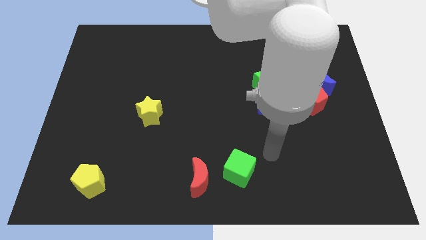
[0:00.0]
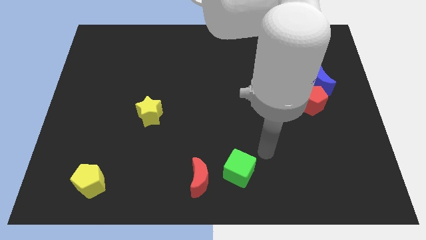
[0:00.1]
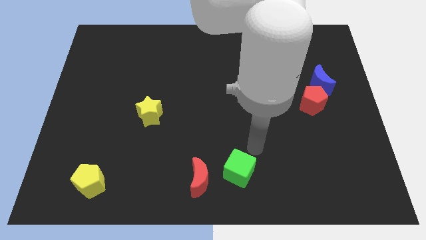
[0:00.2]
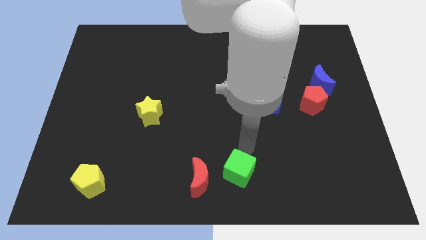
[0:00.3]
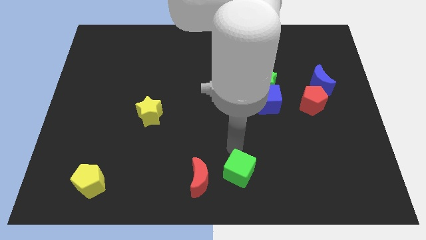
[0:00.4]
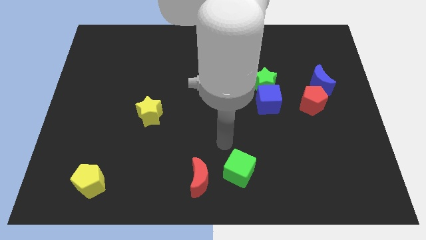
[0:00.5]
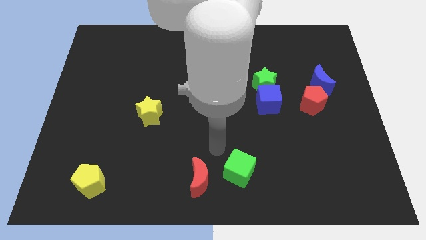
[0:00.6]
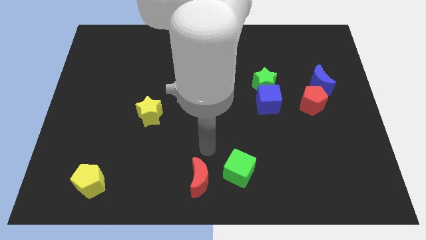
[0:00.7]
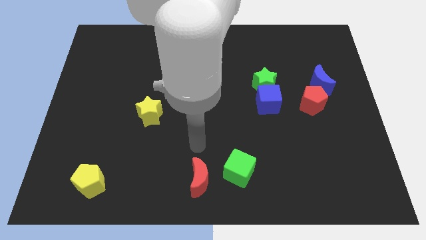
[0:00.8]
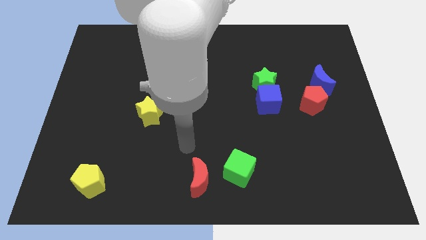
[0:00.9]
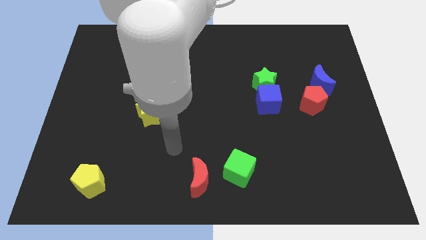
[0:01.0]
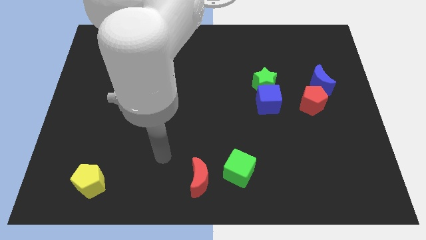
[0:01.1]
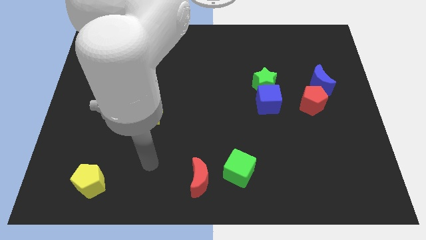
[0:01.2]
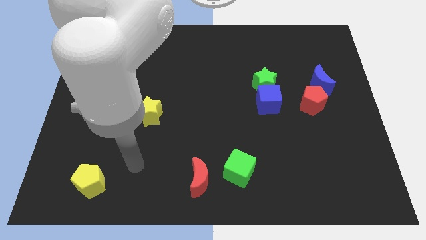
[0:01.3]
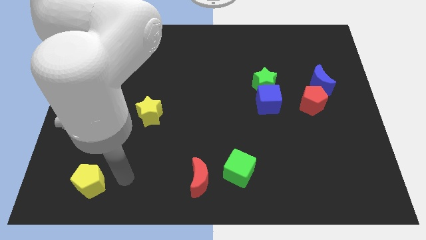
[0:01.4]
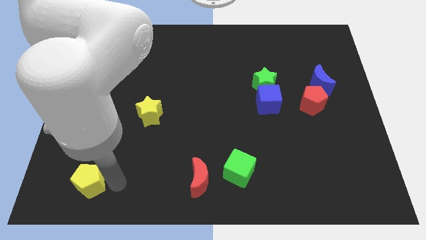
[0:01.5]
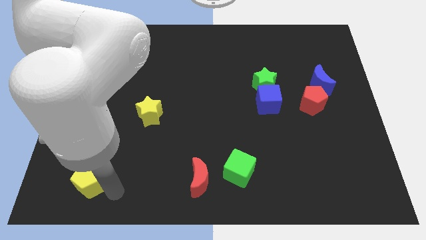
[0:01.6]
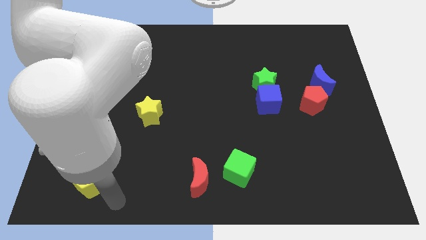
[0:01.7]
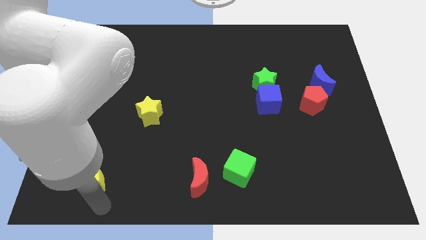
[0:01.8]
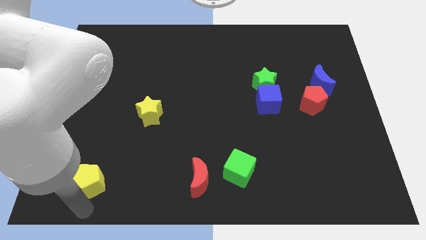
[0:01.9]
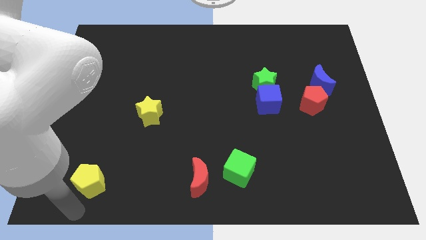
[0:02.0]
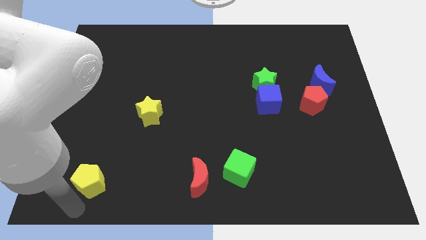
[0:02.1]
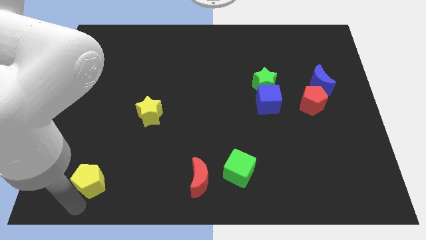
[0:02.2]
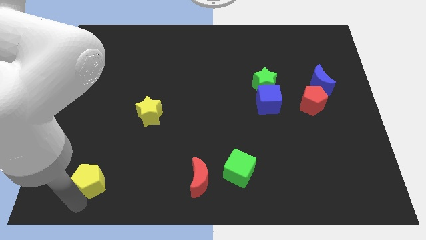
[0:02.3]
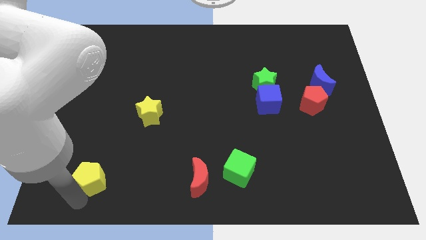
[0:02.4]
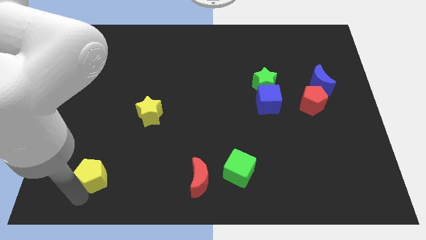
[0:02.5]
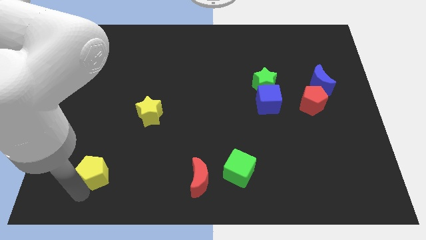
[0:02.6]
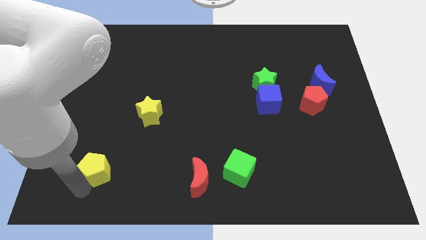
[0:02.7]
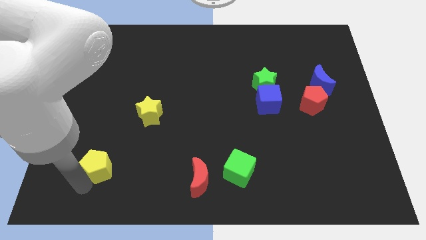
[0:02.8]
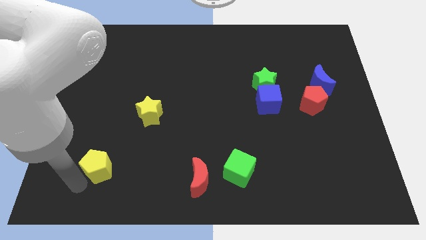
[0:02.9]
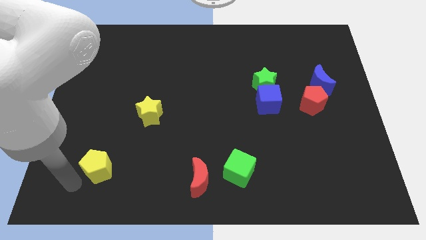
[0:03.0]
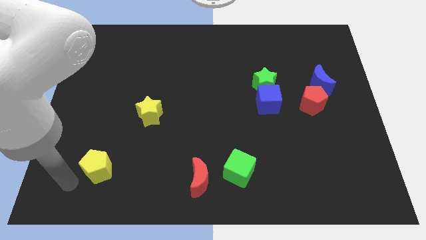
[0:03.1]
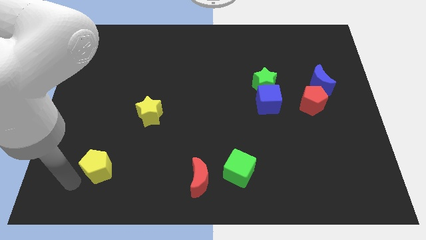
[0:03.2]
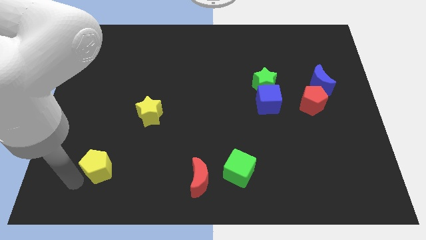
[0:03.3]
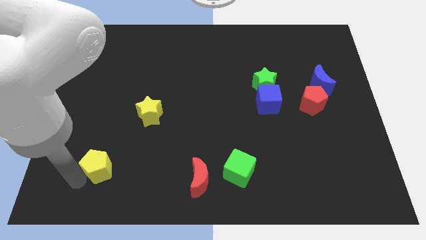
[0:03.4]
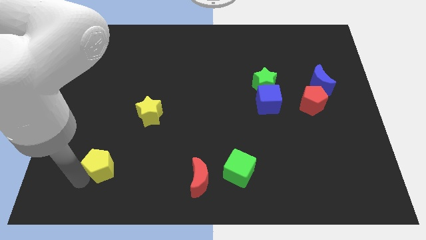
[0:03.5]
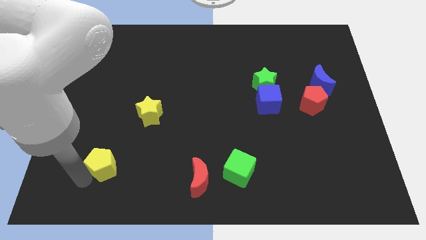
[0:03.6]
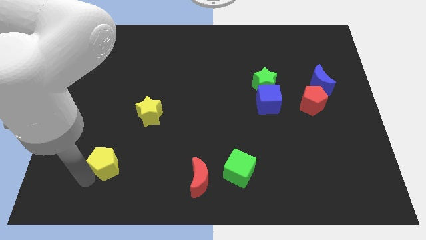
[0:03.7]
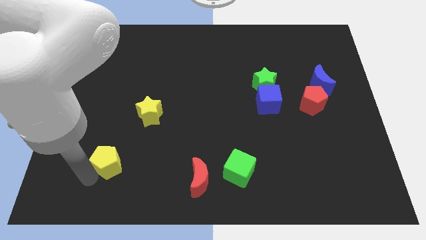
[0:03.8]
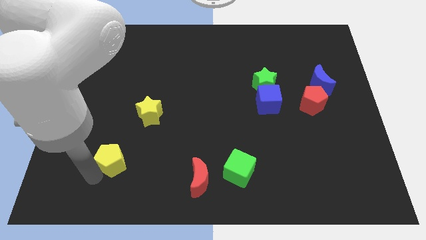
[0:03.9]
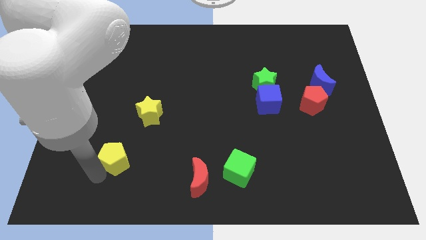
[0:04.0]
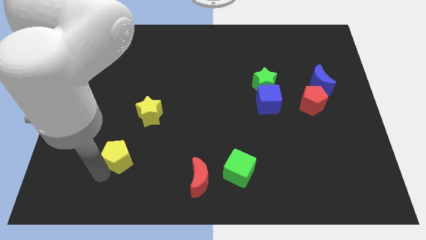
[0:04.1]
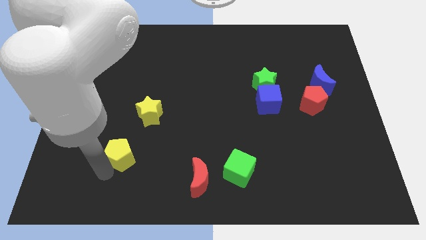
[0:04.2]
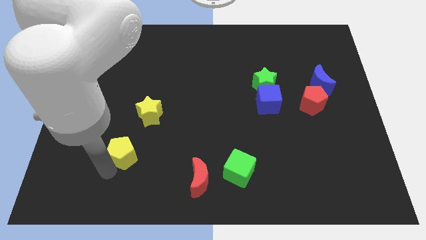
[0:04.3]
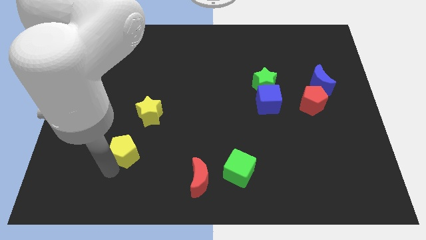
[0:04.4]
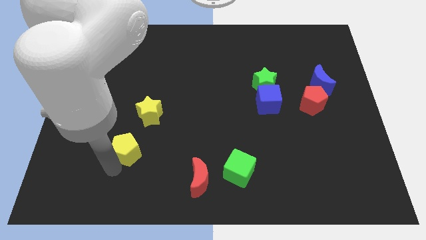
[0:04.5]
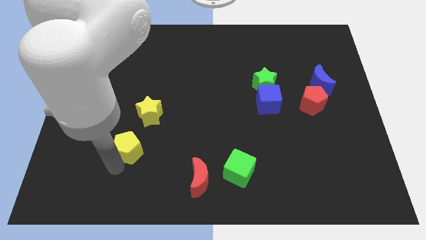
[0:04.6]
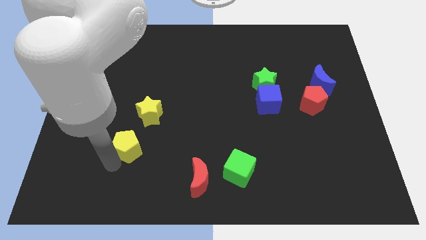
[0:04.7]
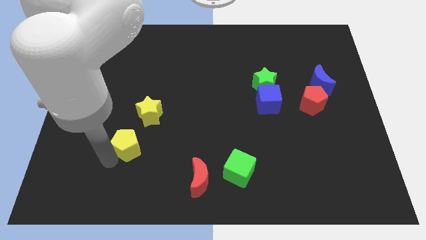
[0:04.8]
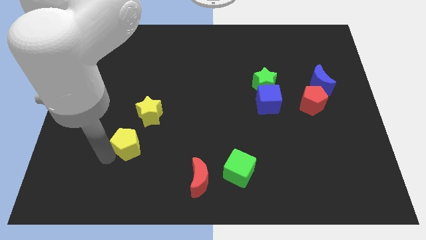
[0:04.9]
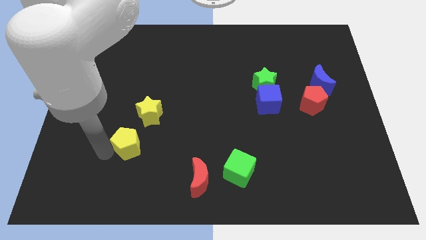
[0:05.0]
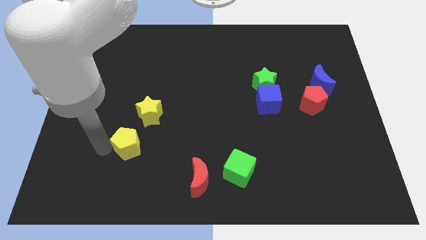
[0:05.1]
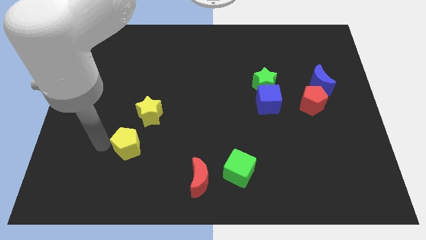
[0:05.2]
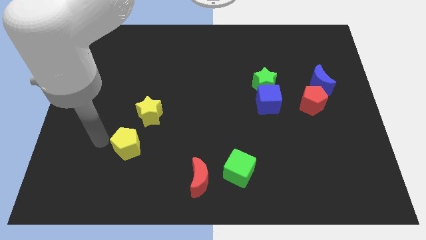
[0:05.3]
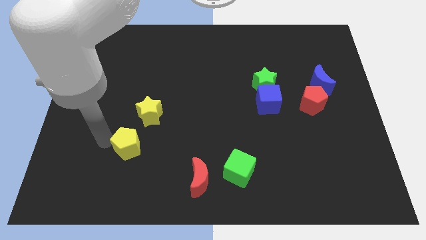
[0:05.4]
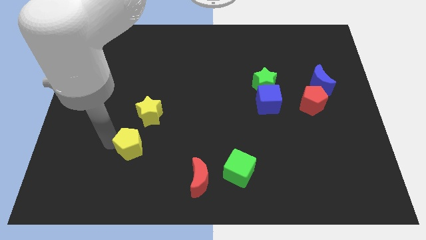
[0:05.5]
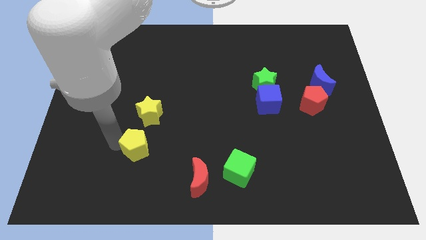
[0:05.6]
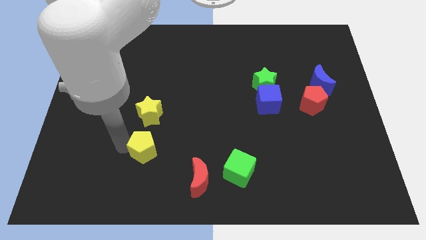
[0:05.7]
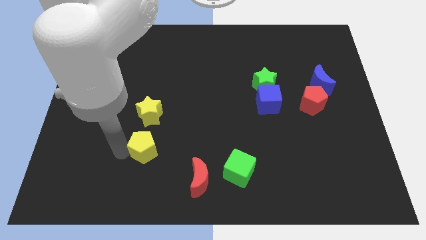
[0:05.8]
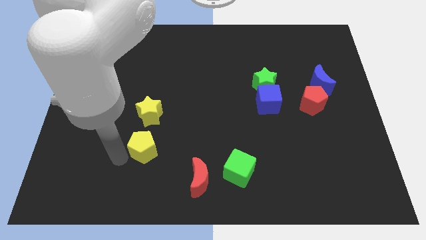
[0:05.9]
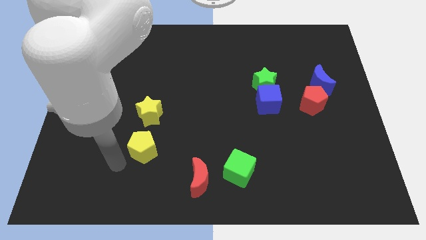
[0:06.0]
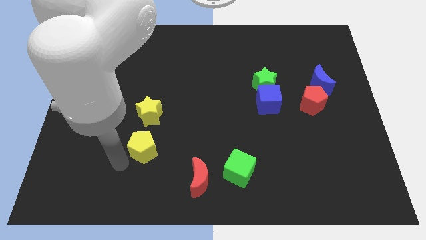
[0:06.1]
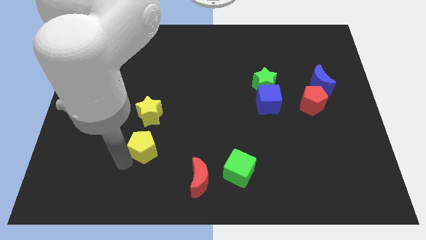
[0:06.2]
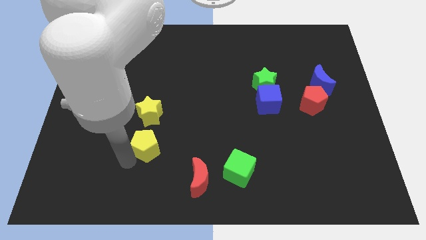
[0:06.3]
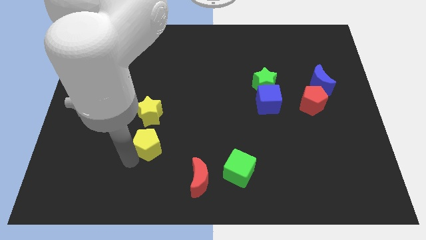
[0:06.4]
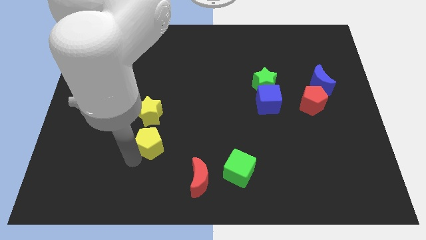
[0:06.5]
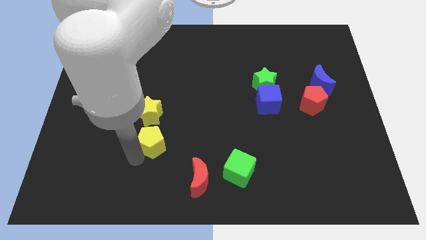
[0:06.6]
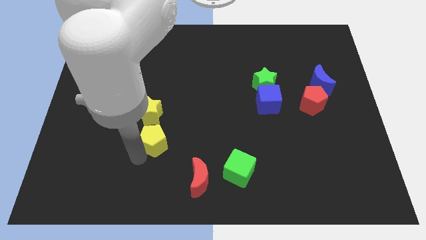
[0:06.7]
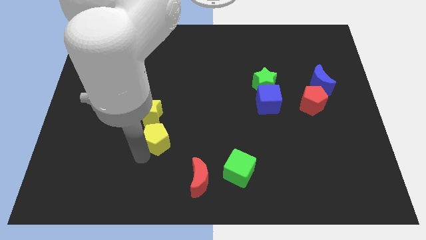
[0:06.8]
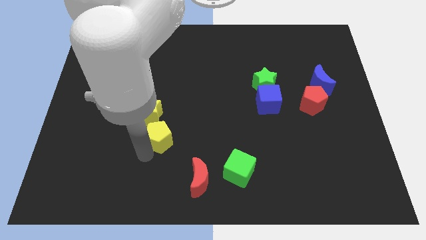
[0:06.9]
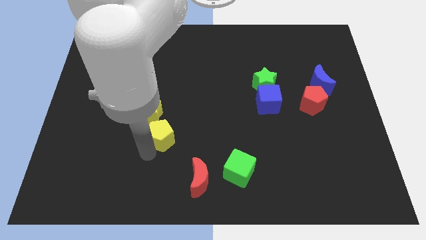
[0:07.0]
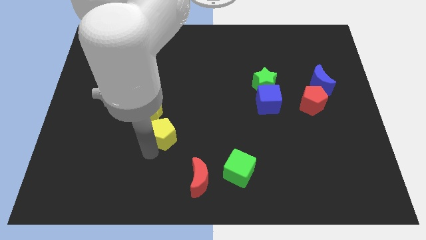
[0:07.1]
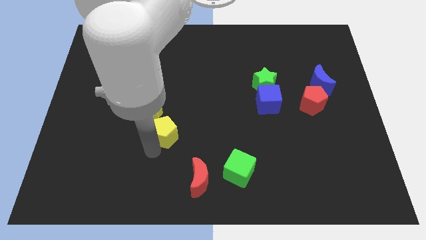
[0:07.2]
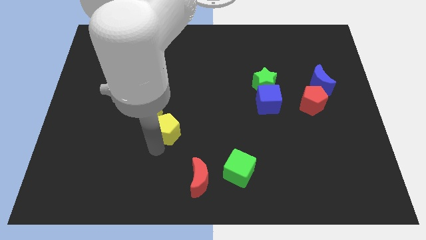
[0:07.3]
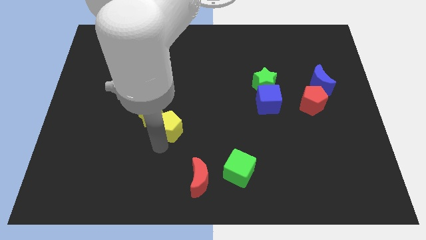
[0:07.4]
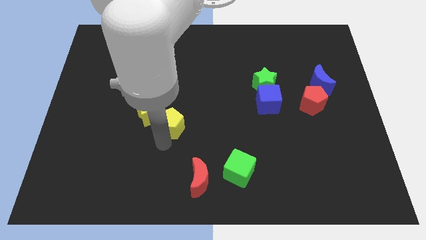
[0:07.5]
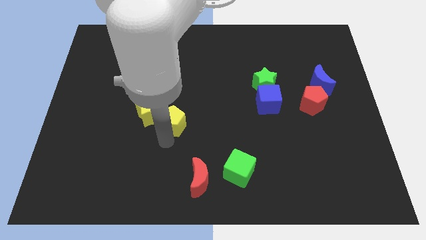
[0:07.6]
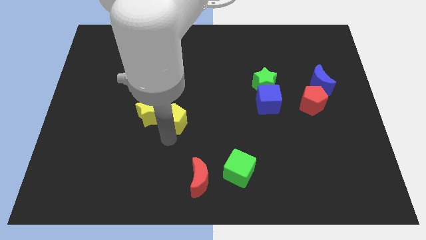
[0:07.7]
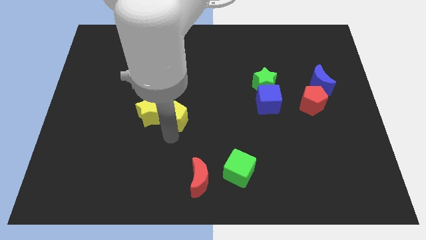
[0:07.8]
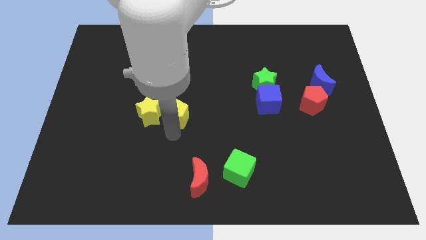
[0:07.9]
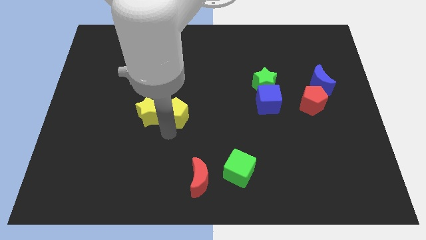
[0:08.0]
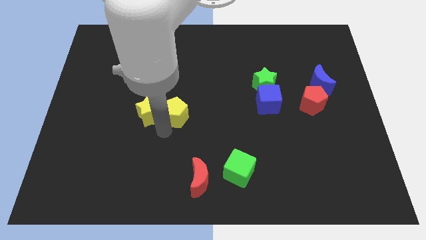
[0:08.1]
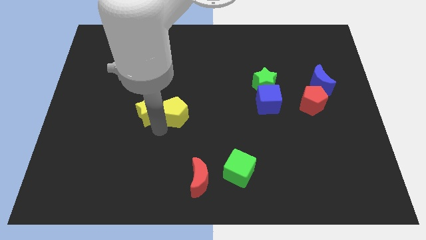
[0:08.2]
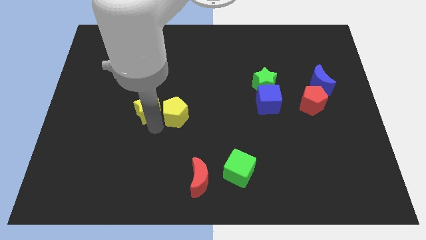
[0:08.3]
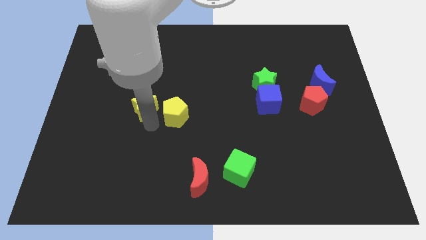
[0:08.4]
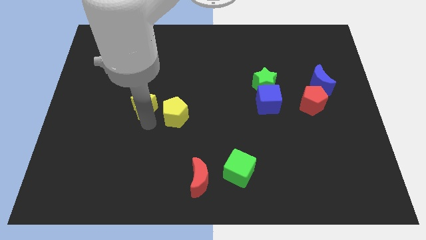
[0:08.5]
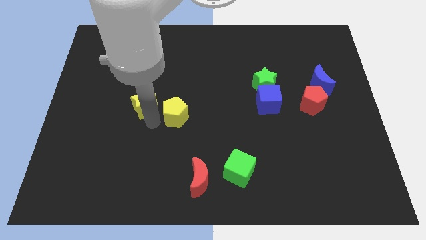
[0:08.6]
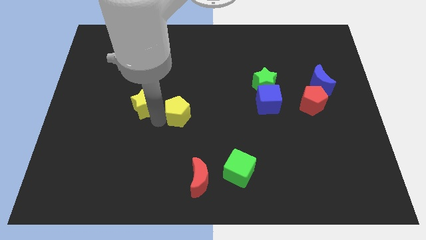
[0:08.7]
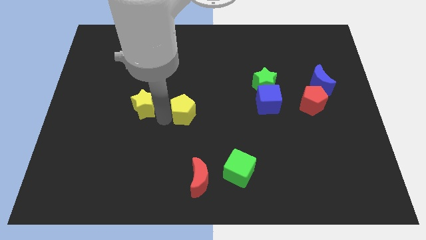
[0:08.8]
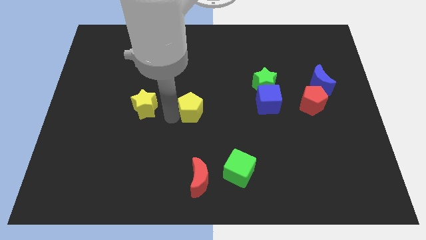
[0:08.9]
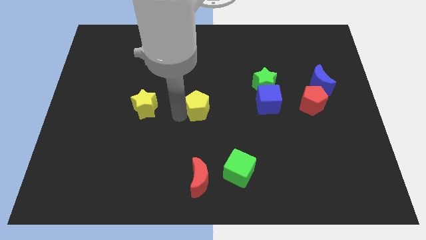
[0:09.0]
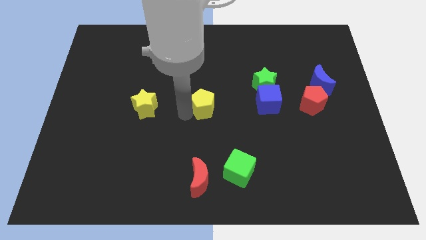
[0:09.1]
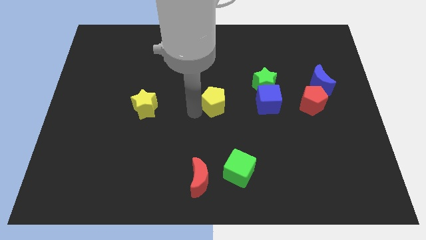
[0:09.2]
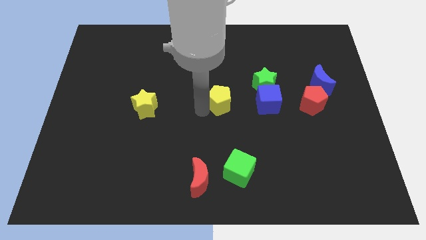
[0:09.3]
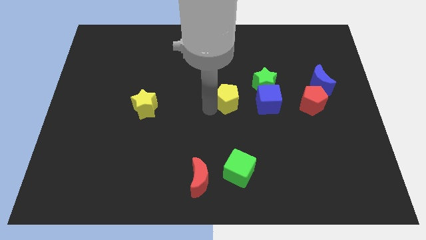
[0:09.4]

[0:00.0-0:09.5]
slide the yellow pentagon just left of the green star
